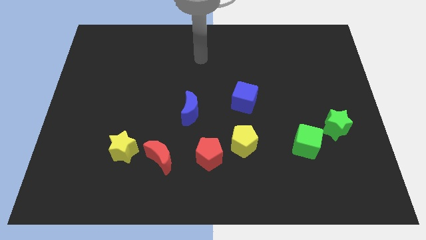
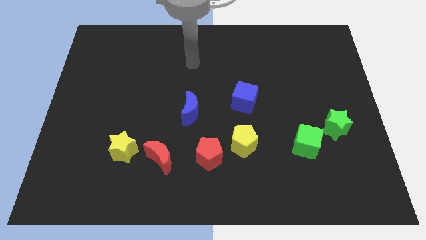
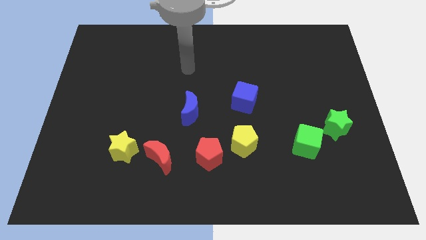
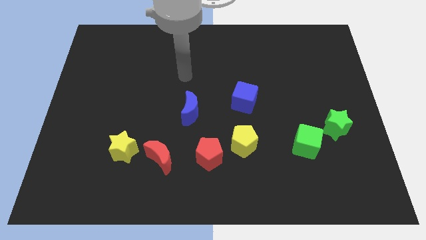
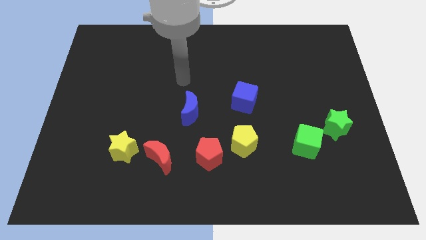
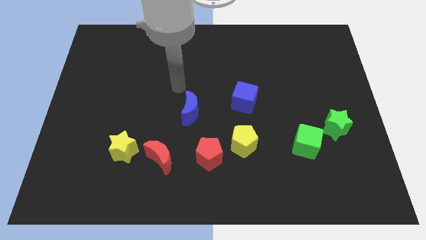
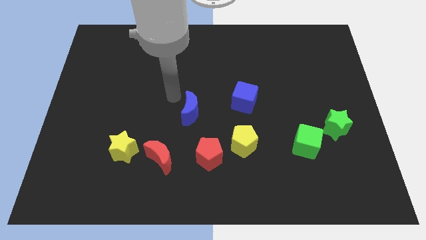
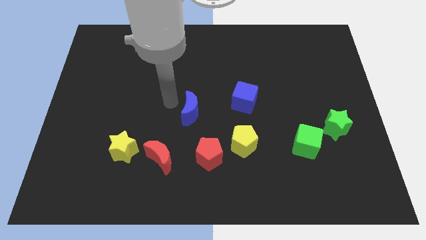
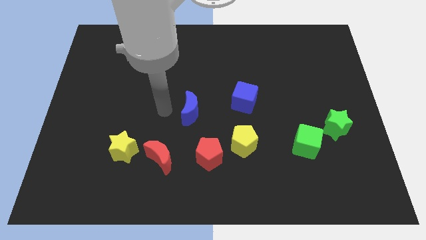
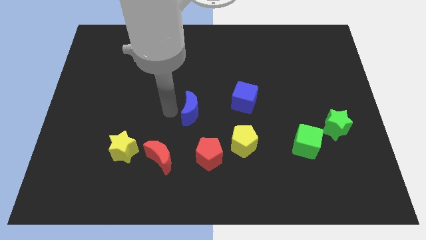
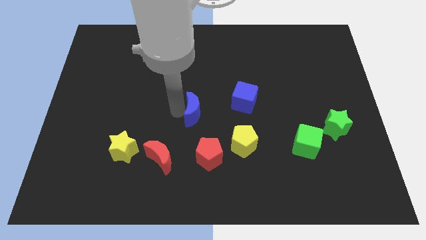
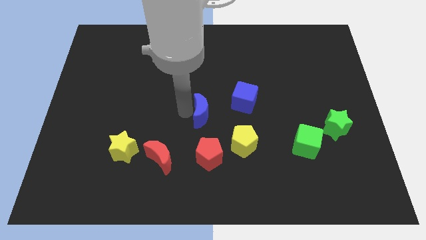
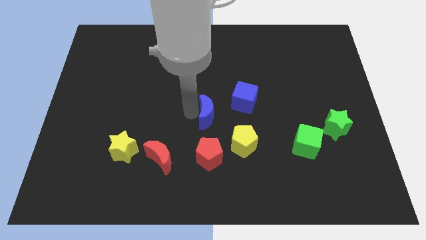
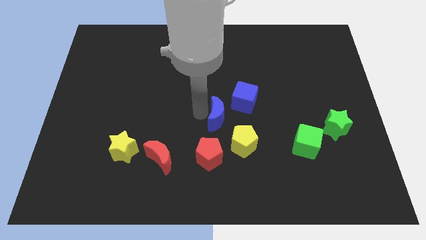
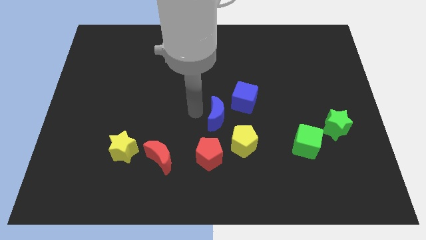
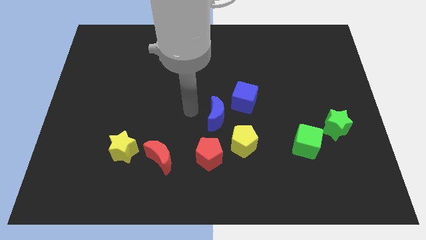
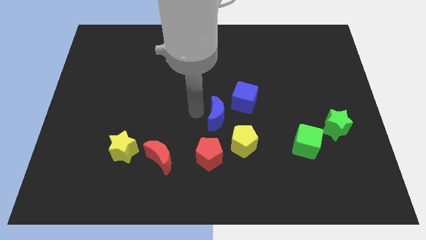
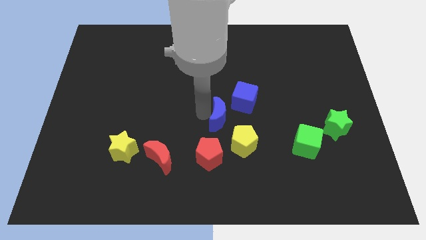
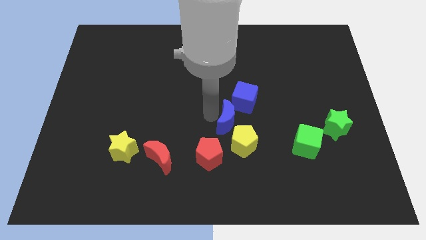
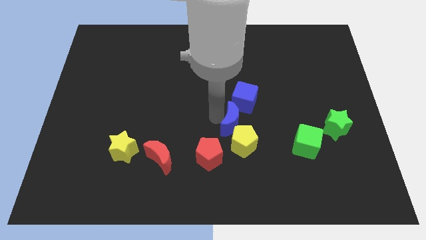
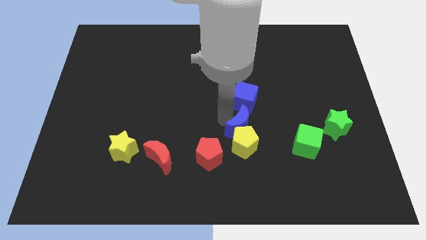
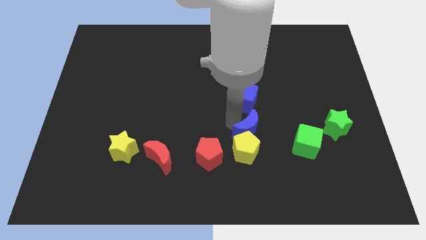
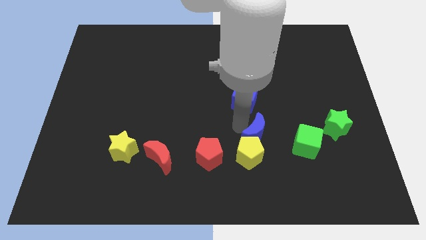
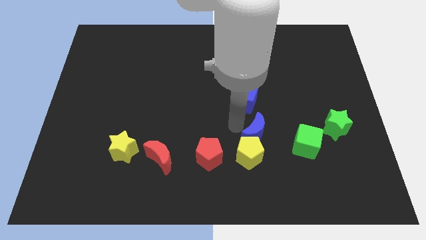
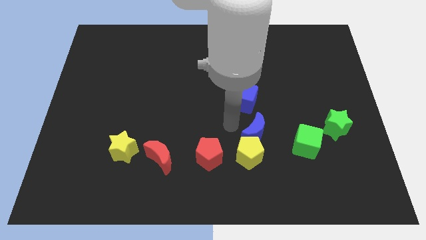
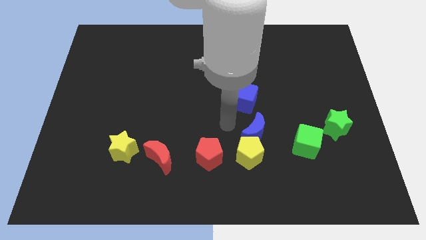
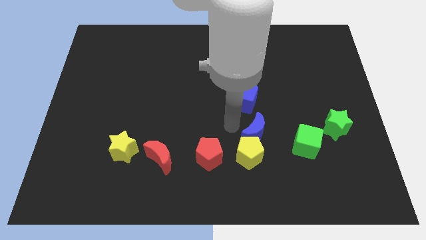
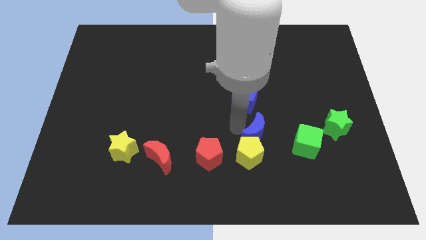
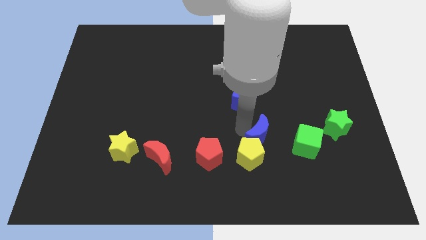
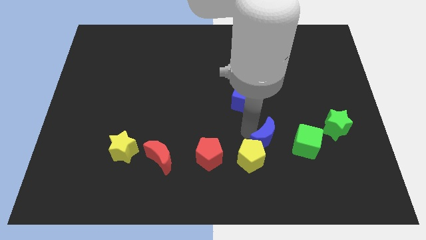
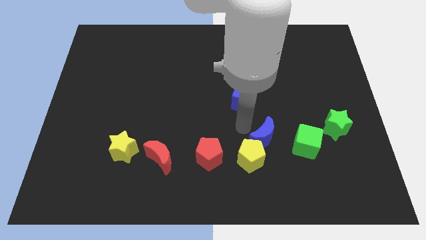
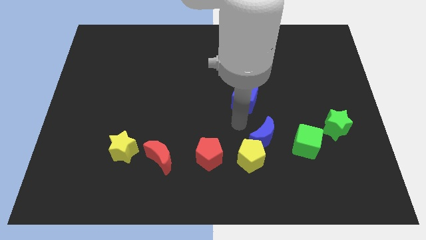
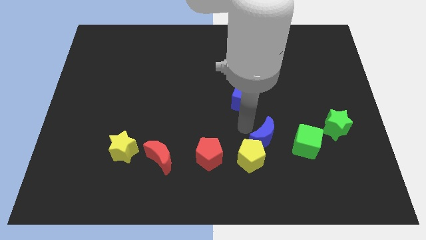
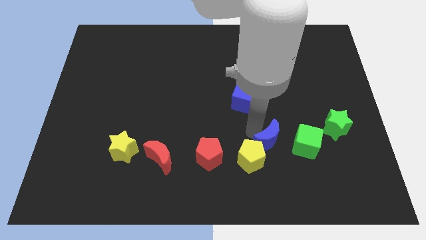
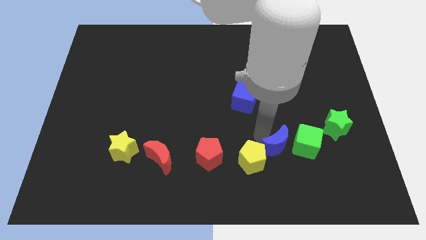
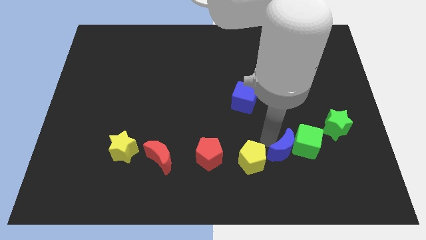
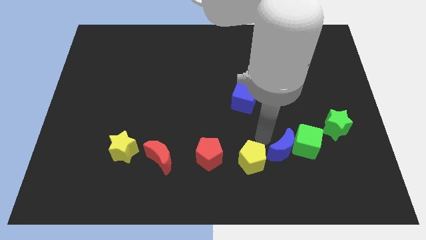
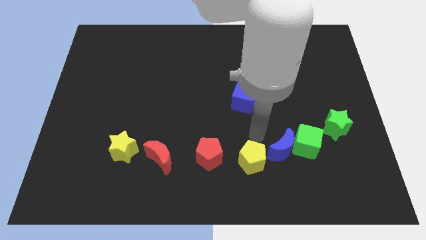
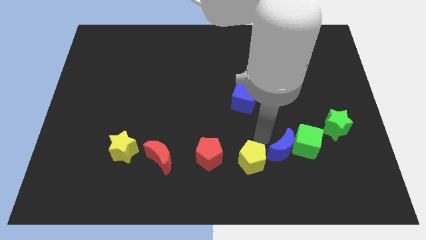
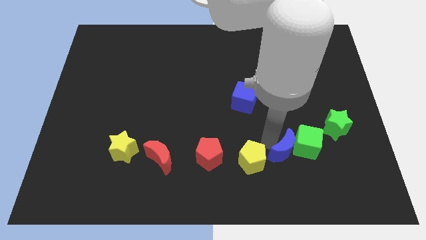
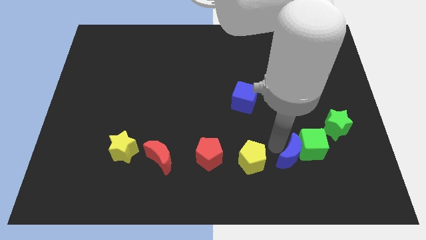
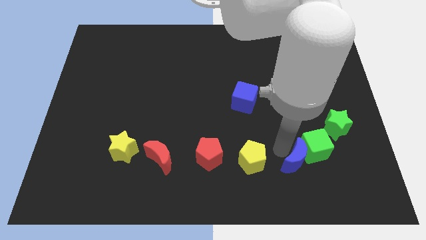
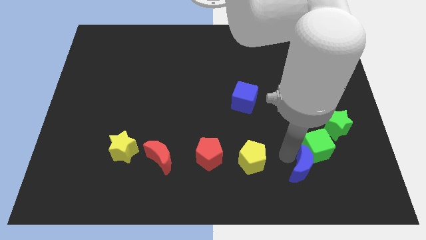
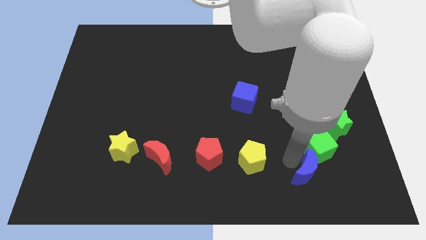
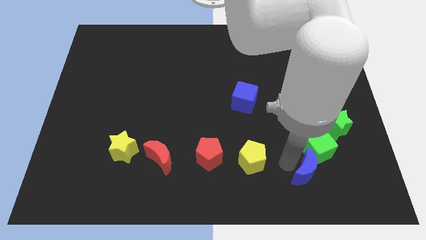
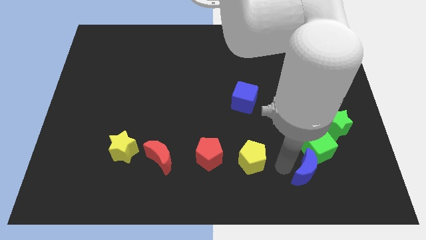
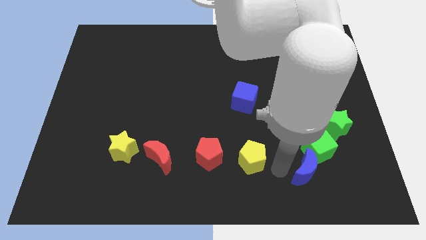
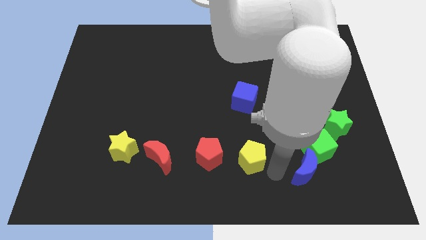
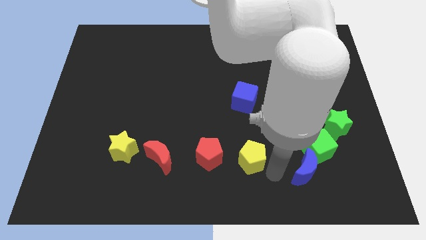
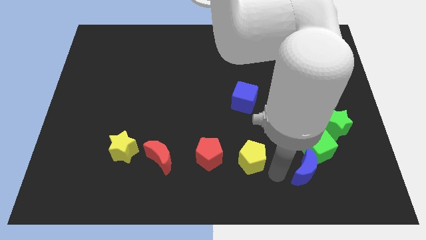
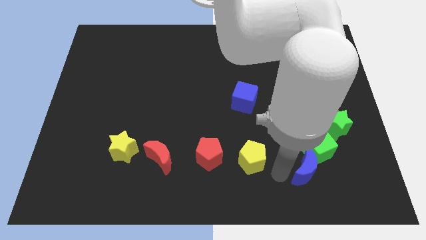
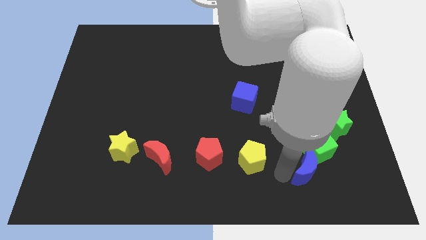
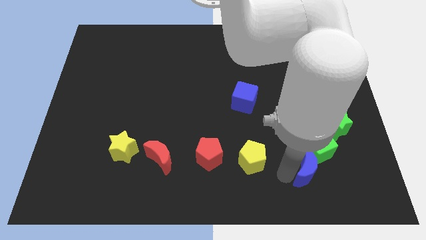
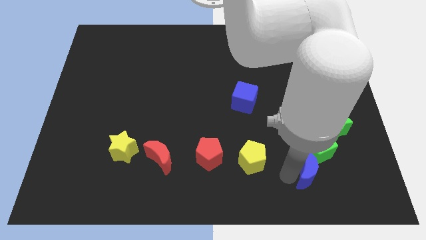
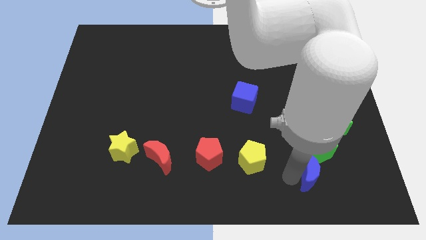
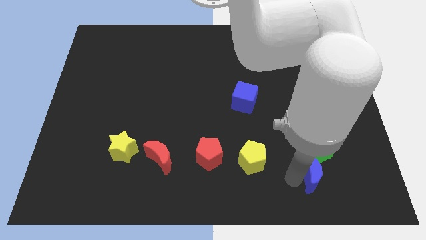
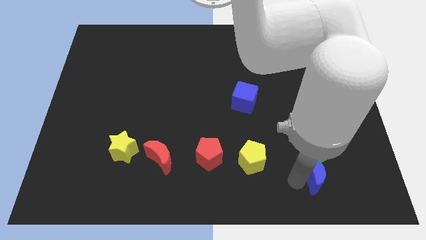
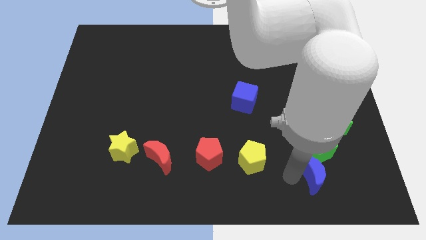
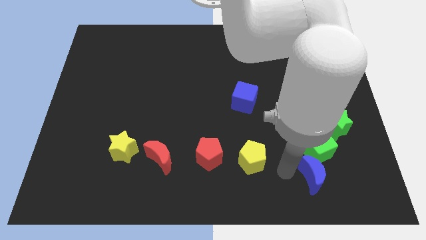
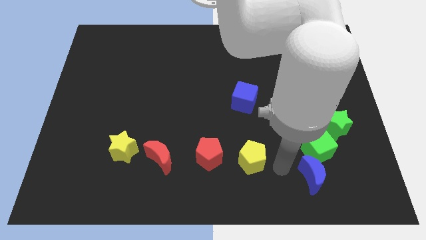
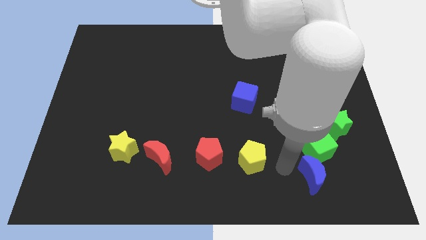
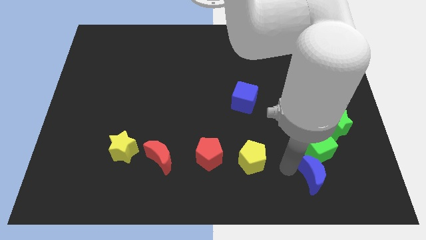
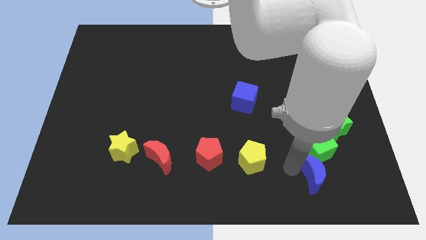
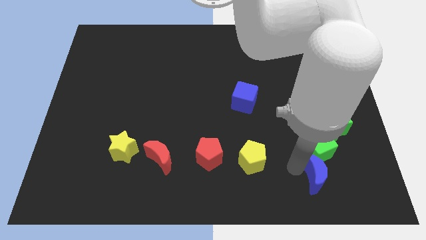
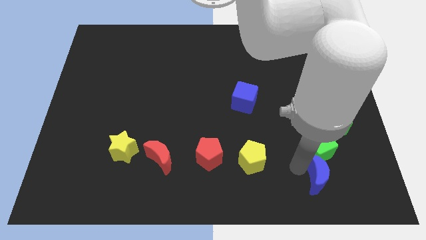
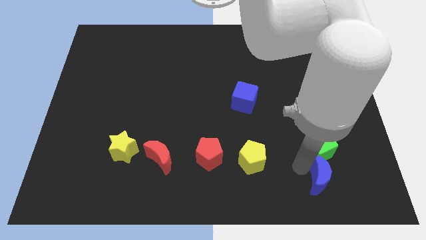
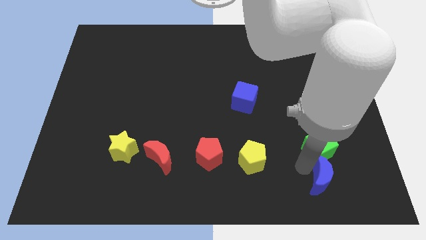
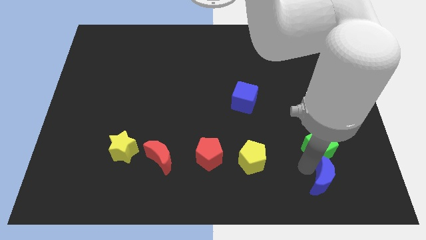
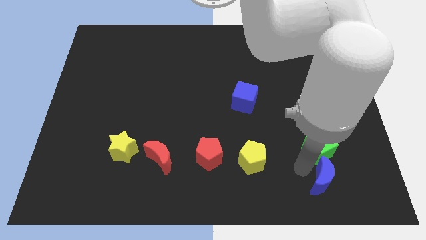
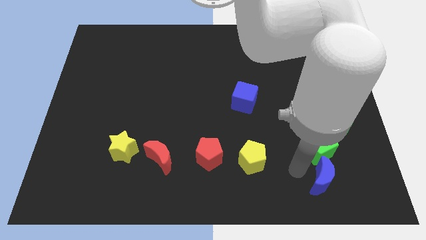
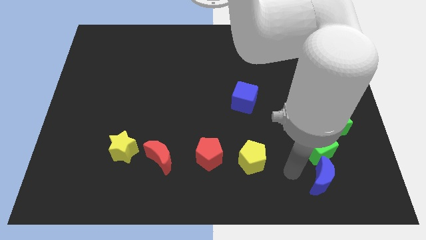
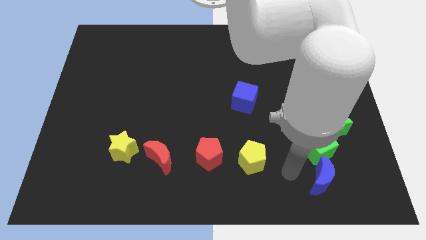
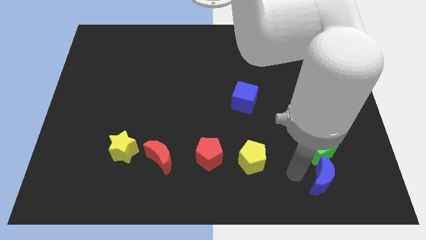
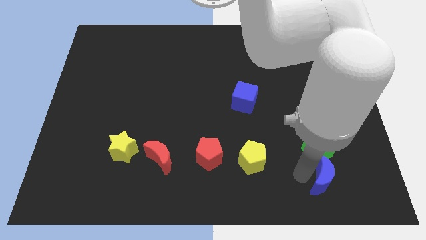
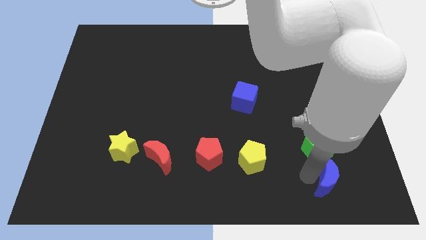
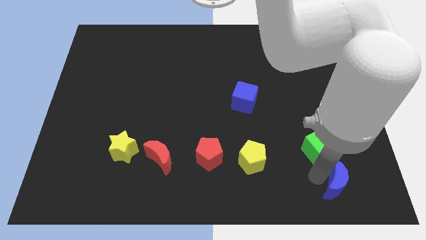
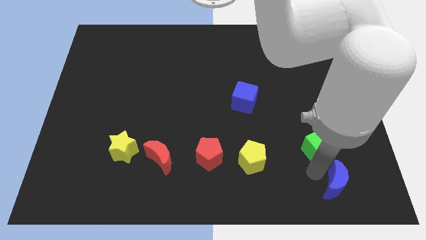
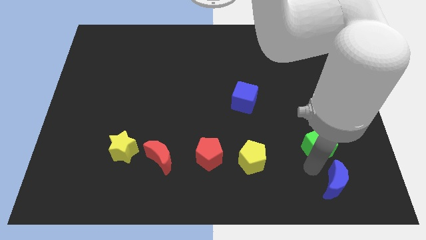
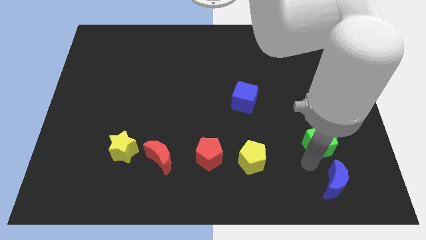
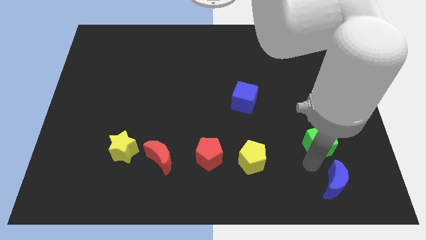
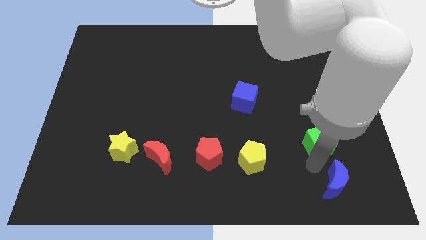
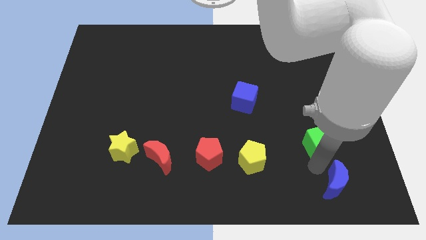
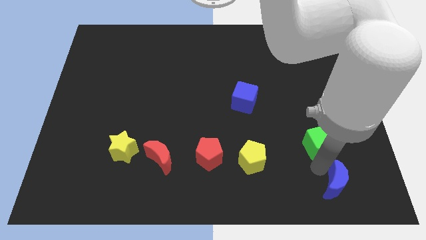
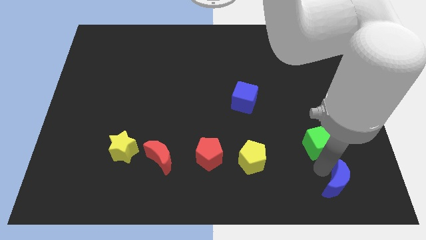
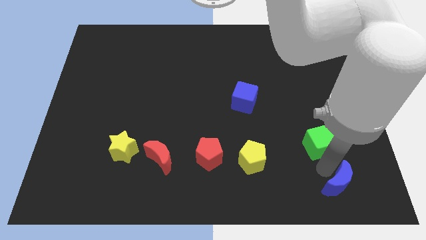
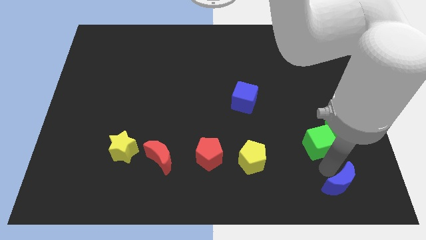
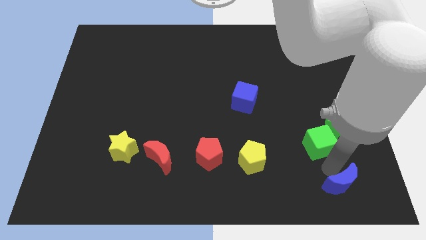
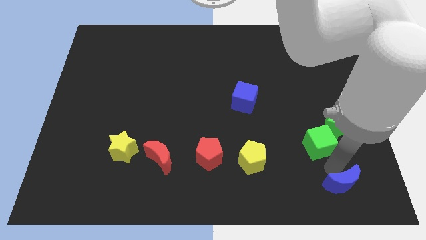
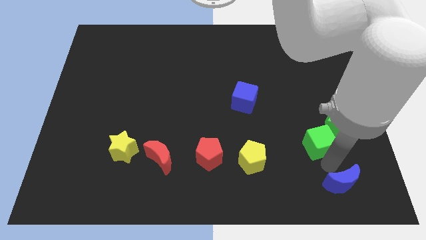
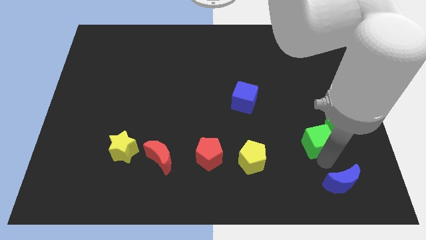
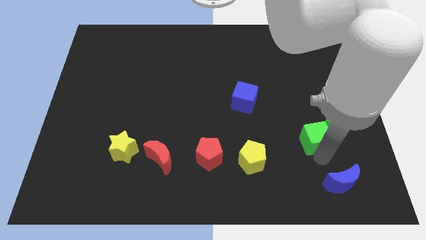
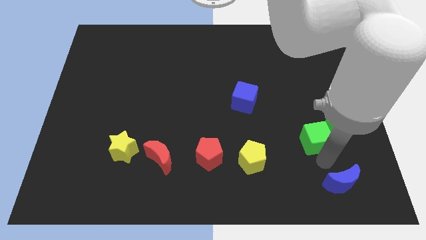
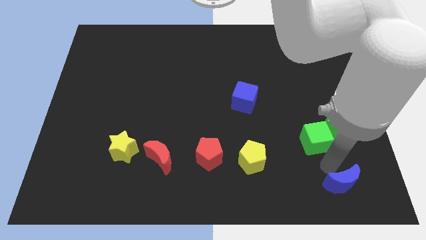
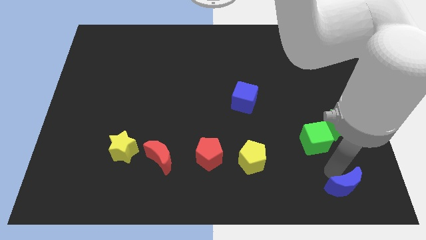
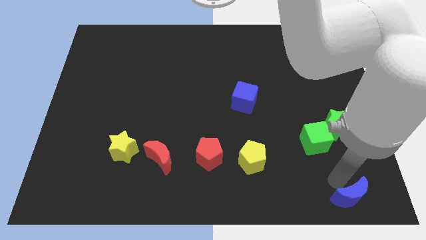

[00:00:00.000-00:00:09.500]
slide the blue moon to the lower right corner
